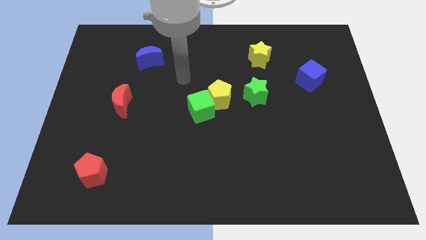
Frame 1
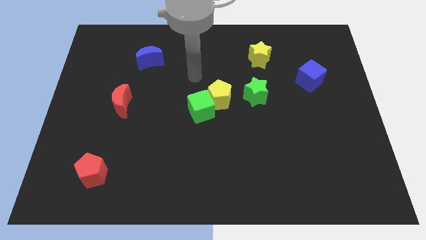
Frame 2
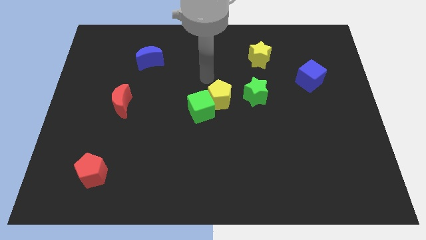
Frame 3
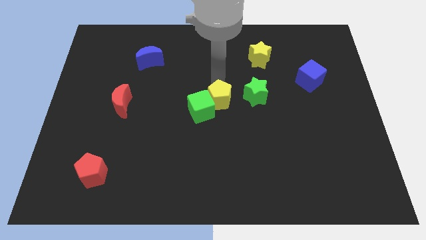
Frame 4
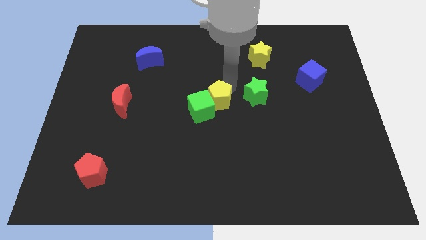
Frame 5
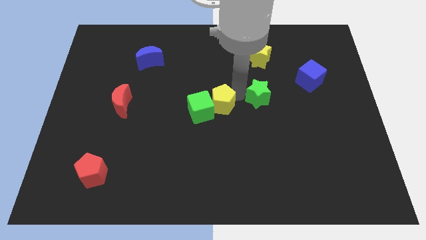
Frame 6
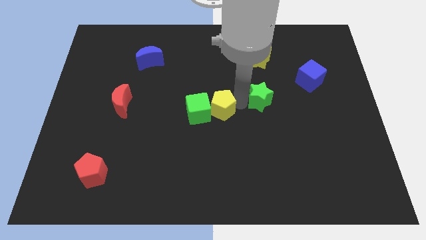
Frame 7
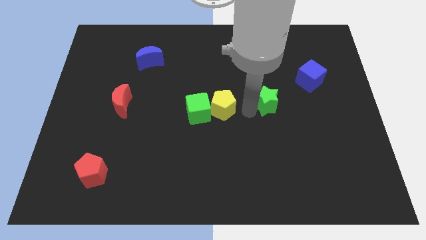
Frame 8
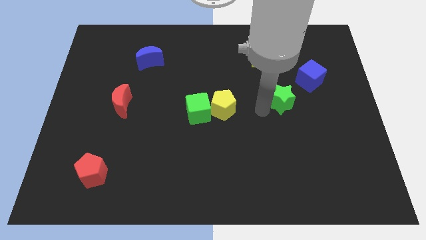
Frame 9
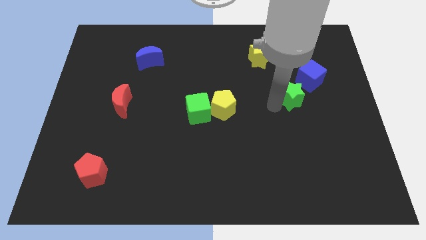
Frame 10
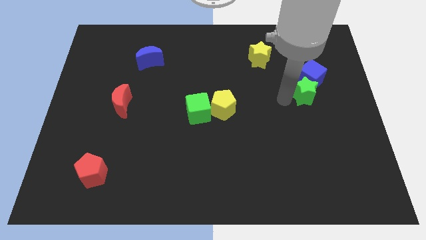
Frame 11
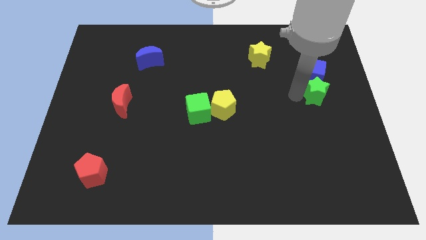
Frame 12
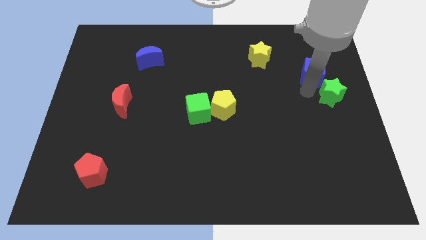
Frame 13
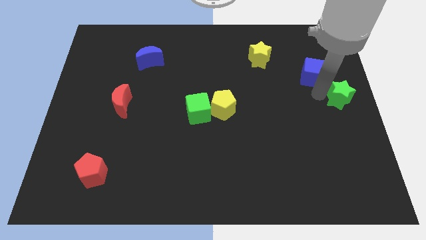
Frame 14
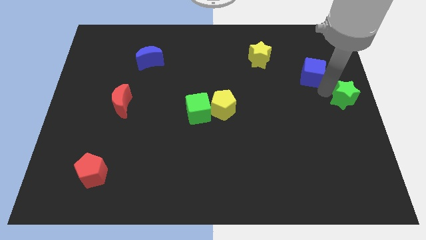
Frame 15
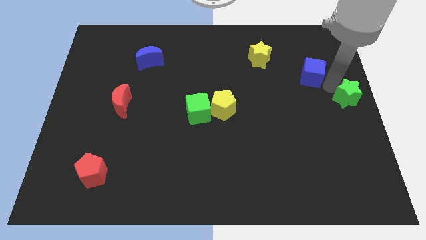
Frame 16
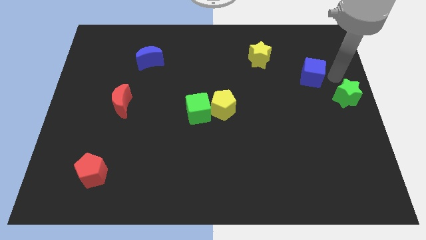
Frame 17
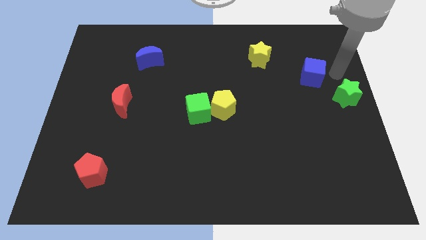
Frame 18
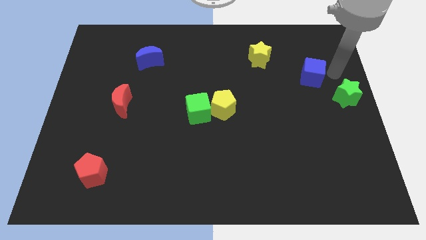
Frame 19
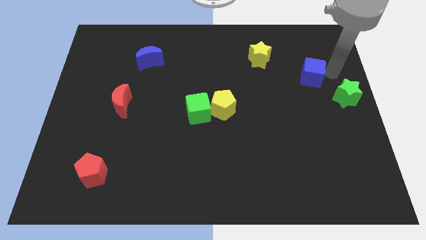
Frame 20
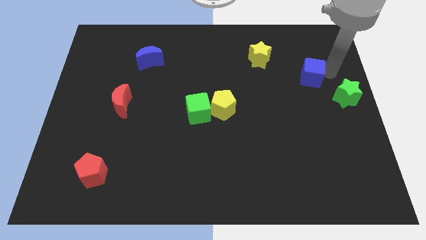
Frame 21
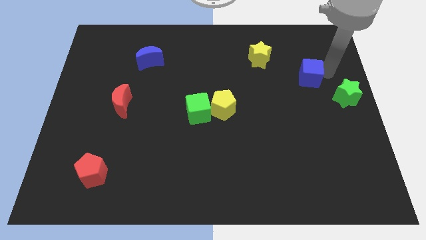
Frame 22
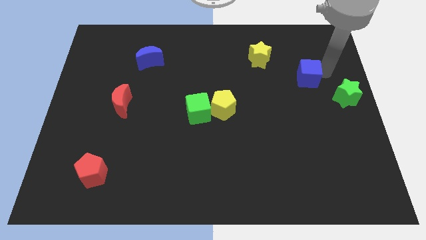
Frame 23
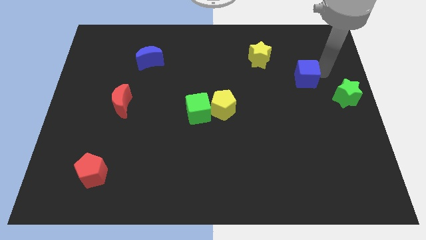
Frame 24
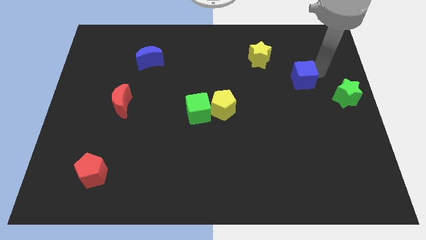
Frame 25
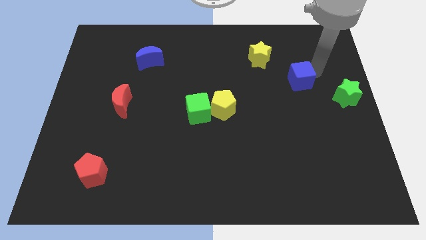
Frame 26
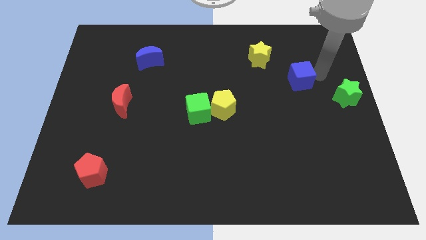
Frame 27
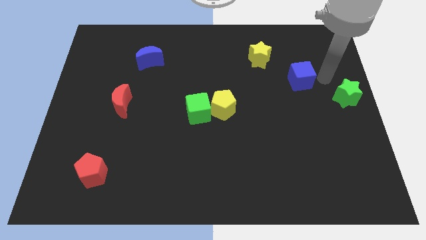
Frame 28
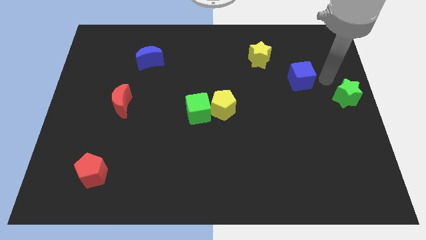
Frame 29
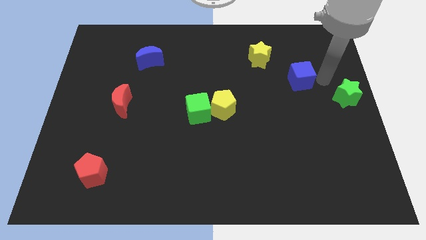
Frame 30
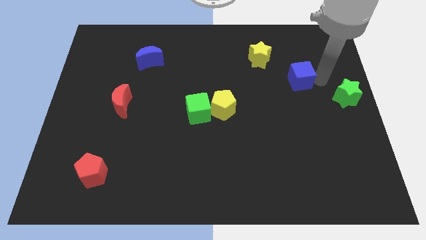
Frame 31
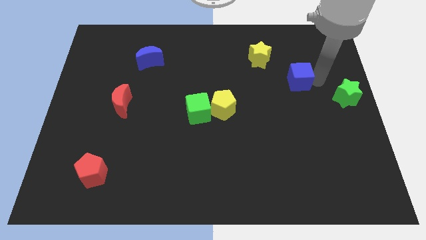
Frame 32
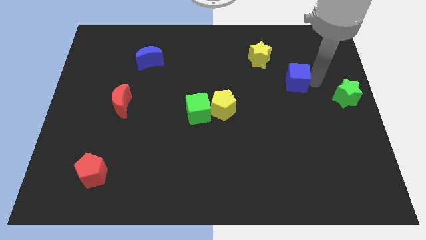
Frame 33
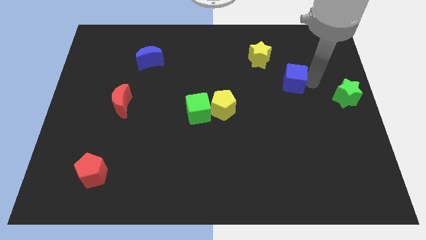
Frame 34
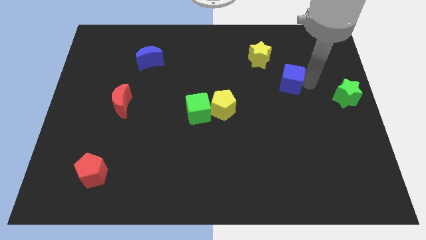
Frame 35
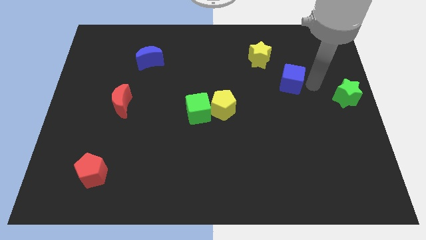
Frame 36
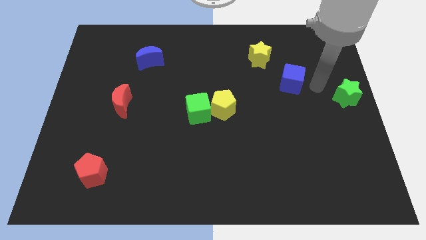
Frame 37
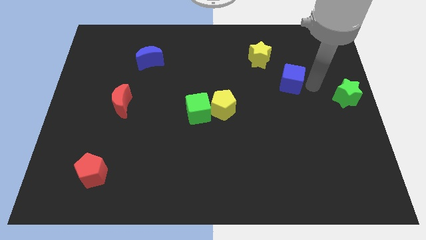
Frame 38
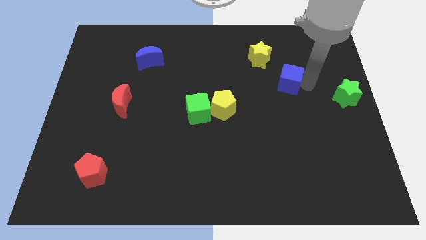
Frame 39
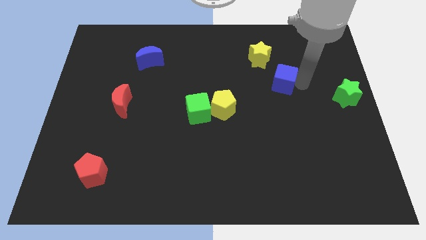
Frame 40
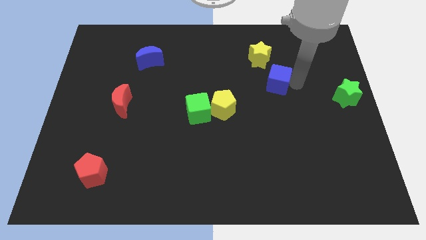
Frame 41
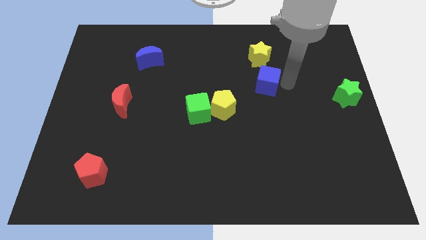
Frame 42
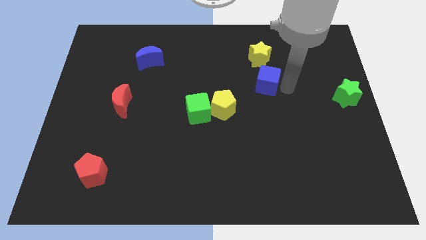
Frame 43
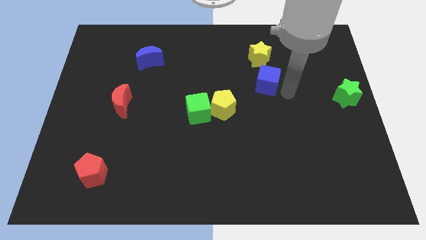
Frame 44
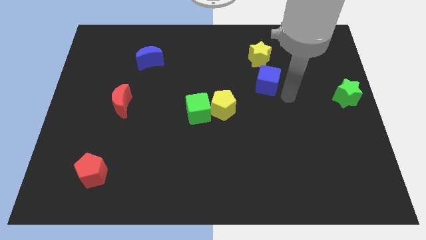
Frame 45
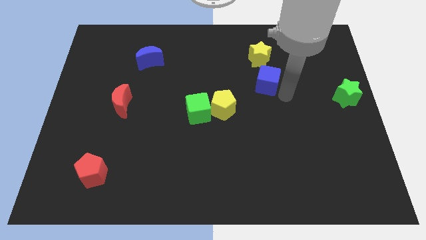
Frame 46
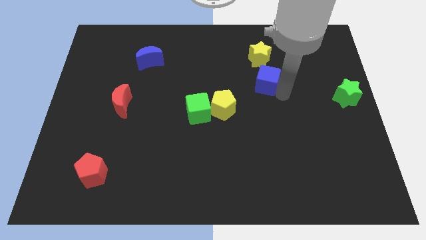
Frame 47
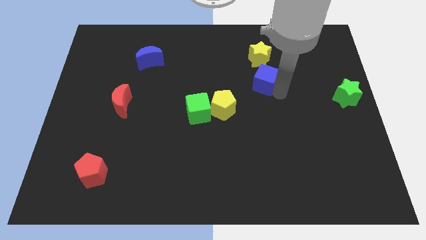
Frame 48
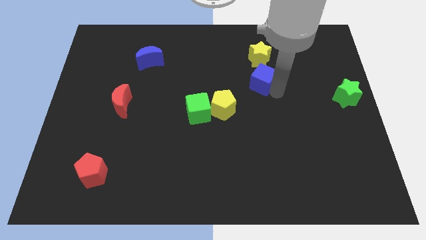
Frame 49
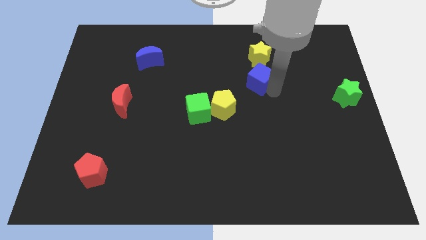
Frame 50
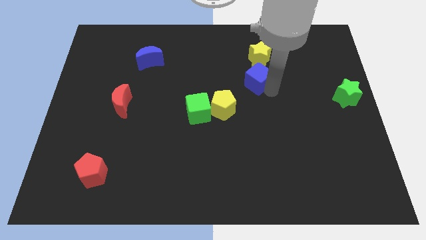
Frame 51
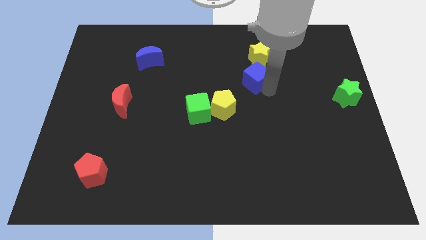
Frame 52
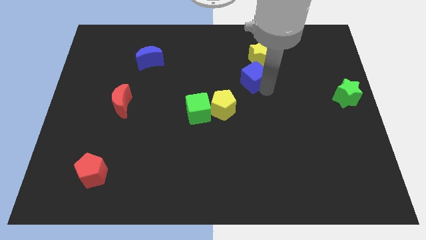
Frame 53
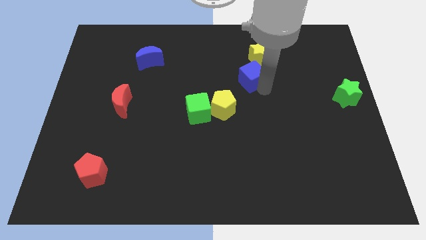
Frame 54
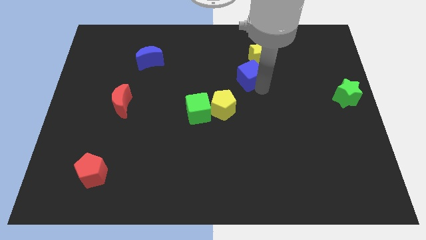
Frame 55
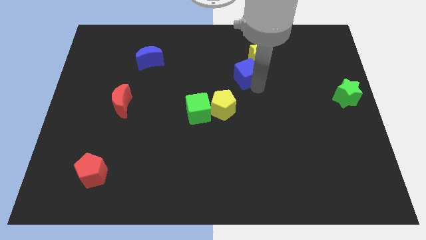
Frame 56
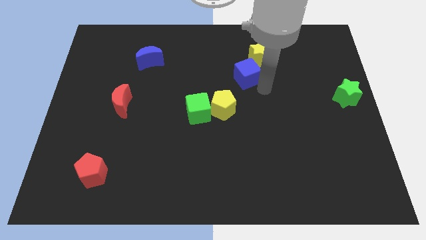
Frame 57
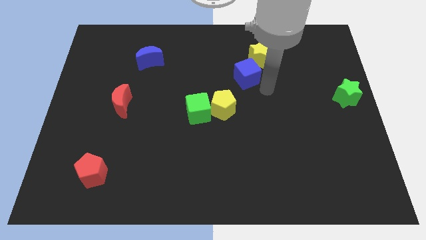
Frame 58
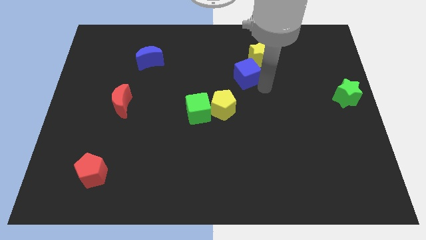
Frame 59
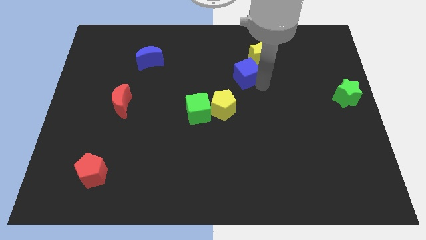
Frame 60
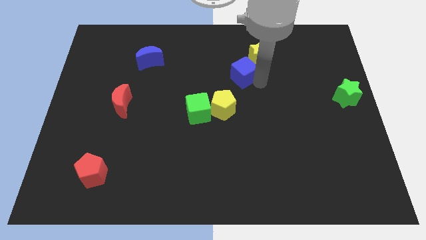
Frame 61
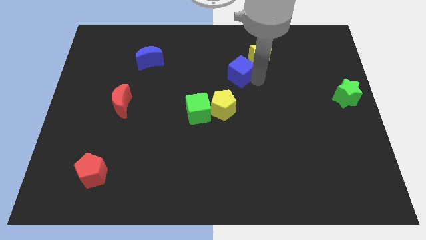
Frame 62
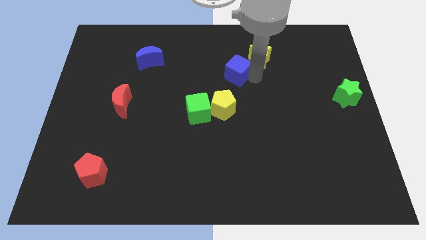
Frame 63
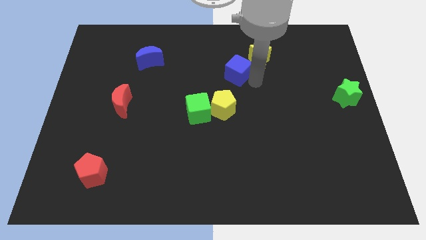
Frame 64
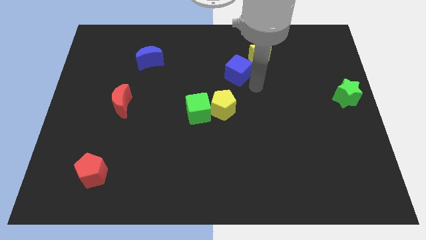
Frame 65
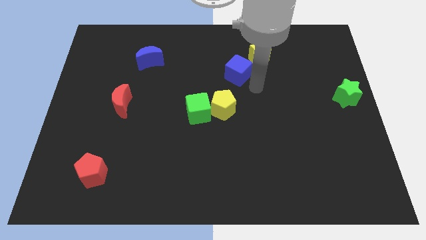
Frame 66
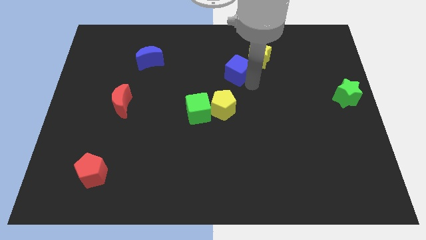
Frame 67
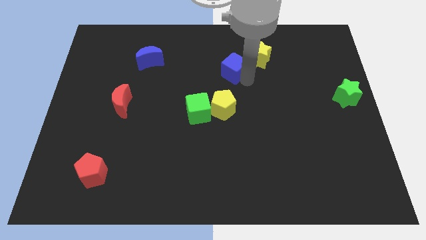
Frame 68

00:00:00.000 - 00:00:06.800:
slide the blue cube to the left side of the yellow star

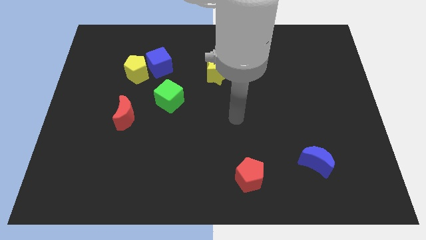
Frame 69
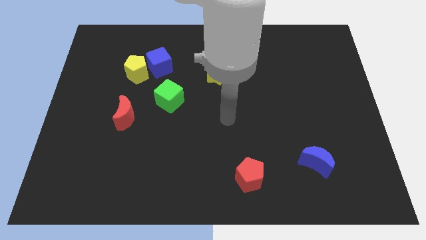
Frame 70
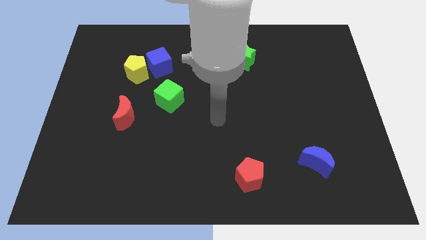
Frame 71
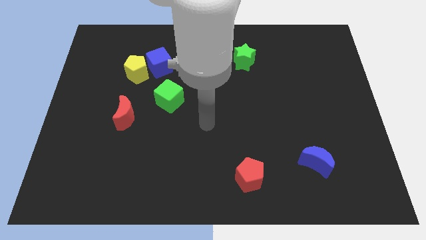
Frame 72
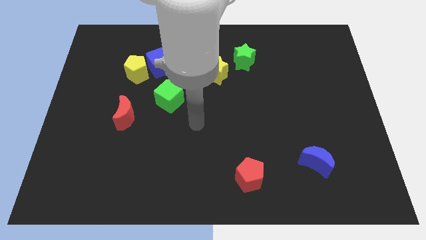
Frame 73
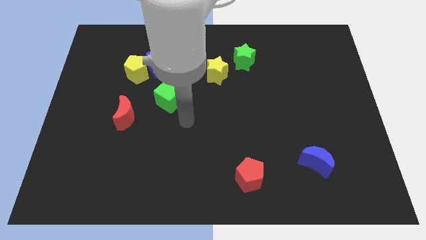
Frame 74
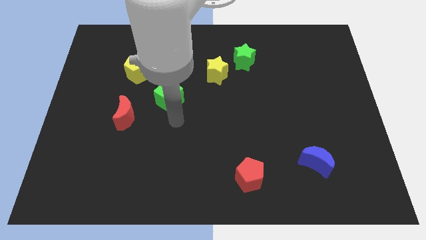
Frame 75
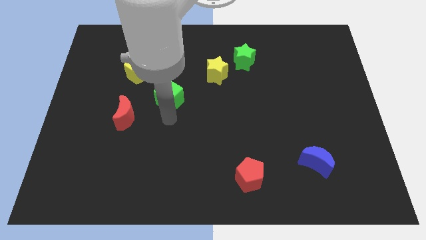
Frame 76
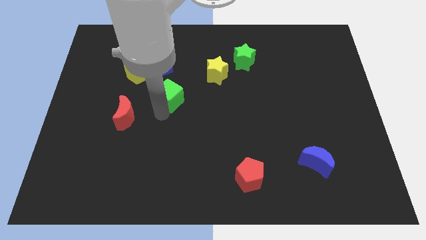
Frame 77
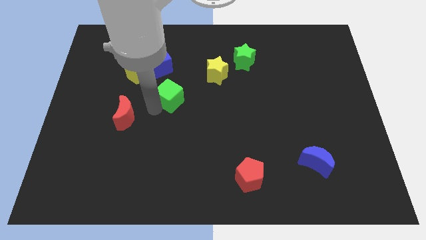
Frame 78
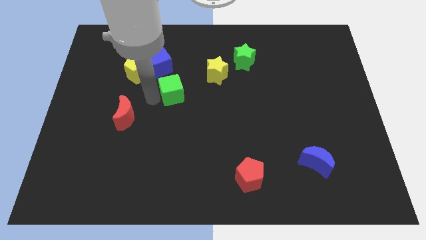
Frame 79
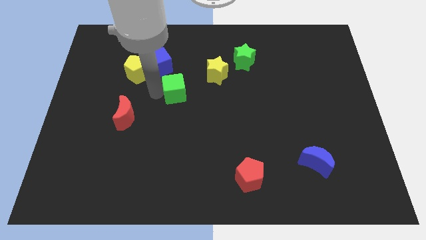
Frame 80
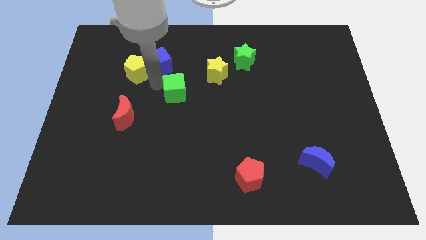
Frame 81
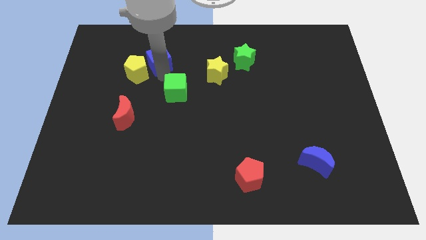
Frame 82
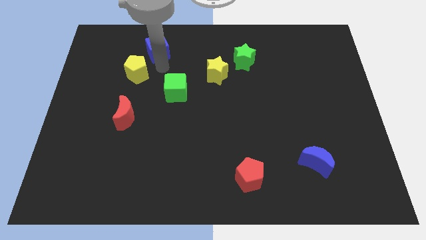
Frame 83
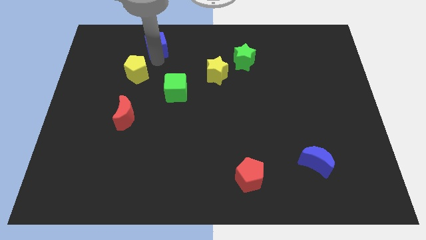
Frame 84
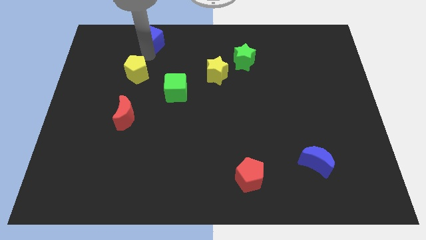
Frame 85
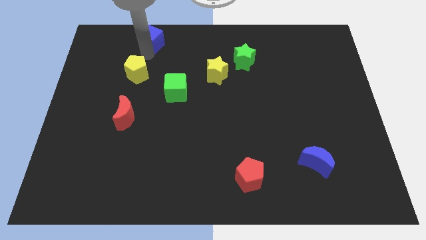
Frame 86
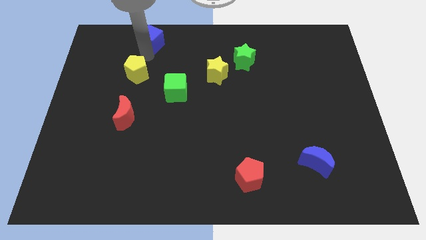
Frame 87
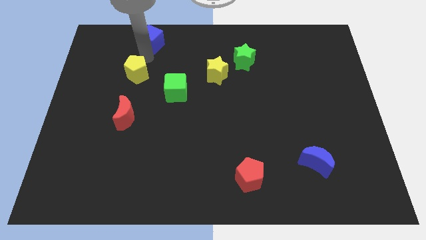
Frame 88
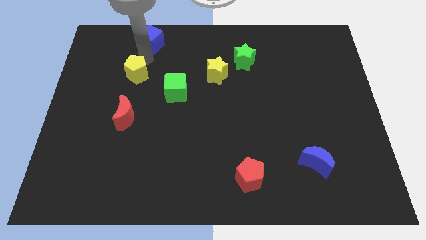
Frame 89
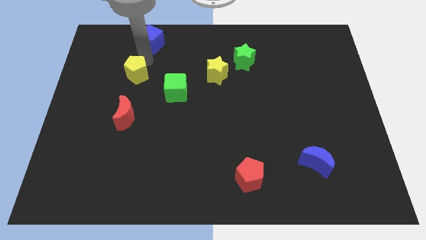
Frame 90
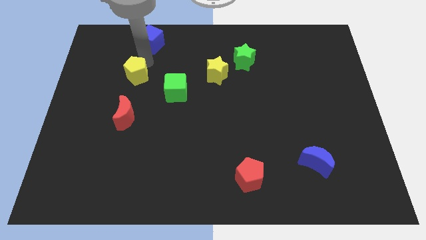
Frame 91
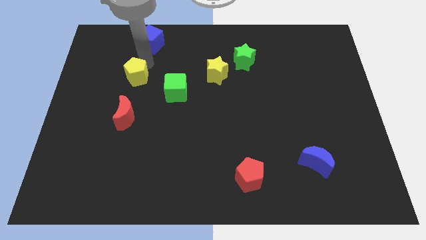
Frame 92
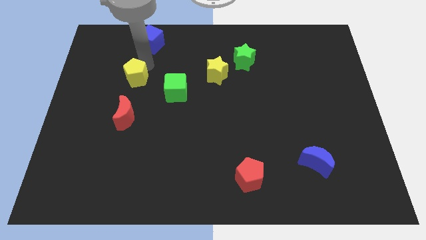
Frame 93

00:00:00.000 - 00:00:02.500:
push the yellow pentagon to the left of the green cube
